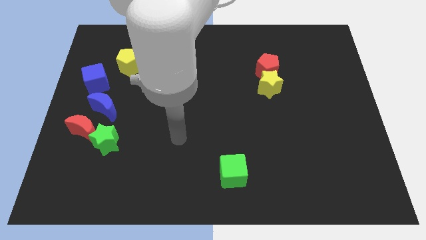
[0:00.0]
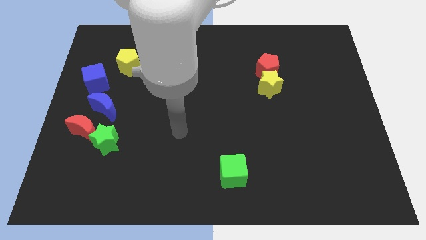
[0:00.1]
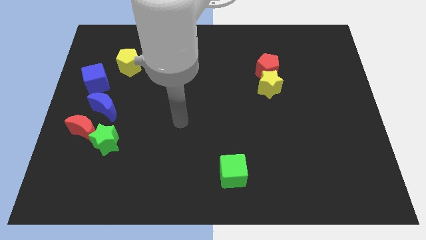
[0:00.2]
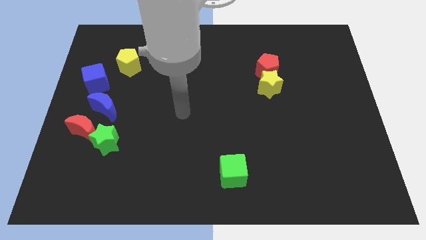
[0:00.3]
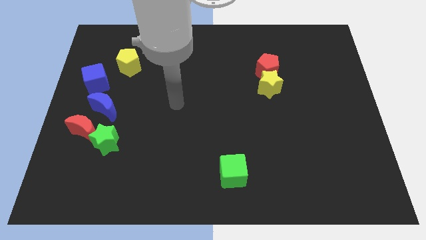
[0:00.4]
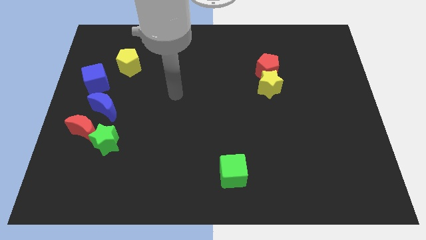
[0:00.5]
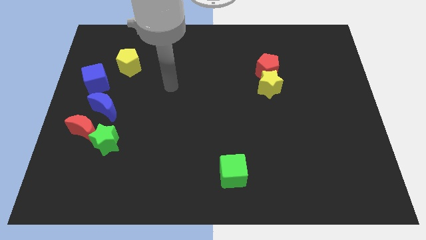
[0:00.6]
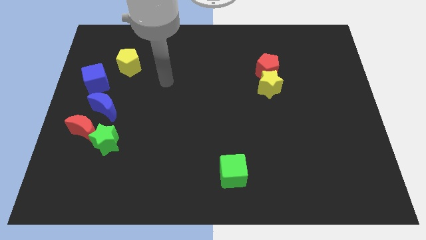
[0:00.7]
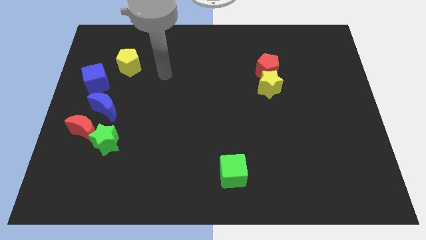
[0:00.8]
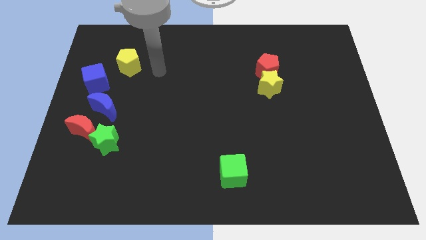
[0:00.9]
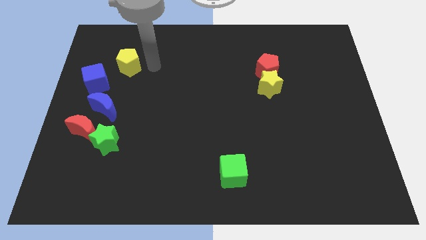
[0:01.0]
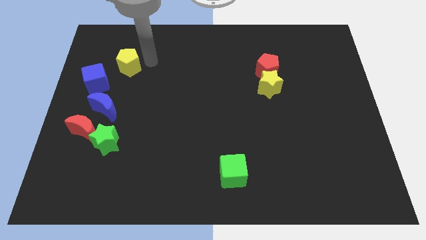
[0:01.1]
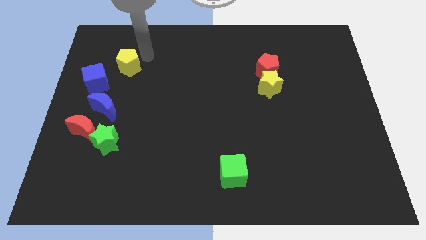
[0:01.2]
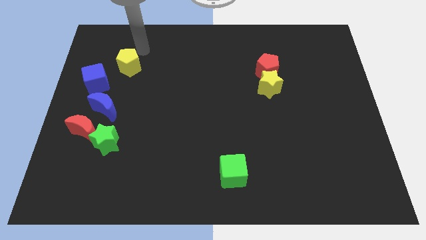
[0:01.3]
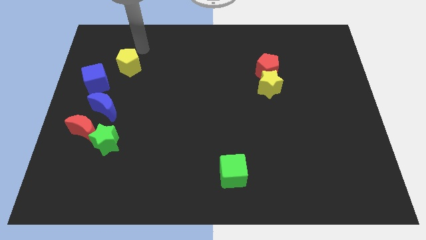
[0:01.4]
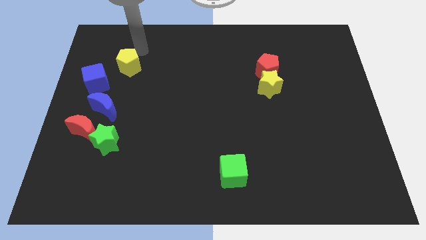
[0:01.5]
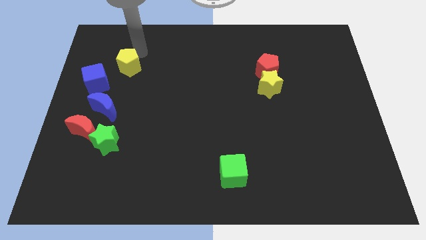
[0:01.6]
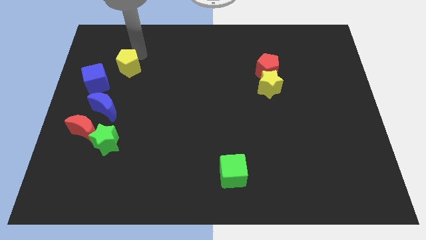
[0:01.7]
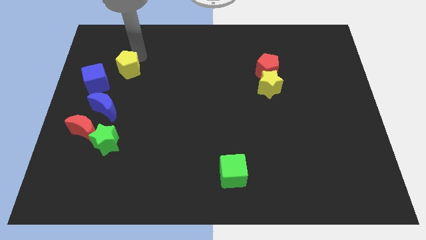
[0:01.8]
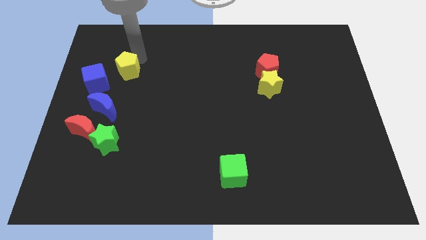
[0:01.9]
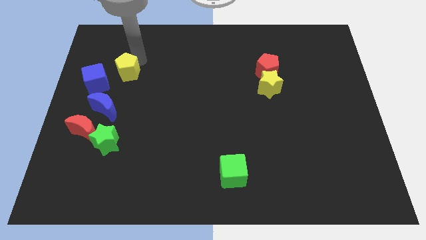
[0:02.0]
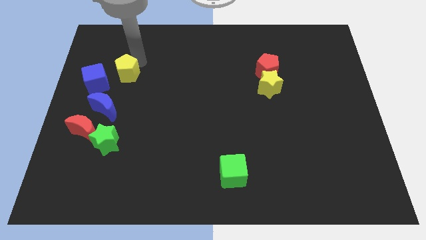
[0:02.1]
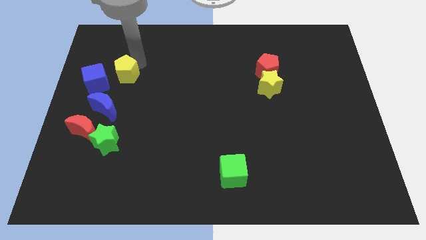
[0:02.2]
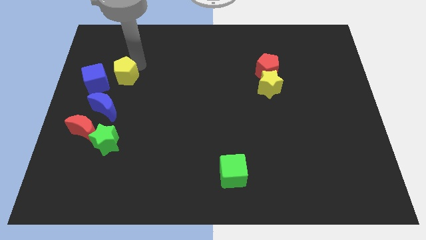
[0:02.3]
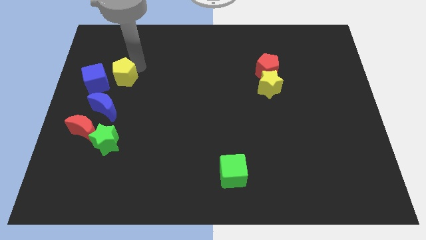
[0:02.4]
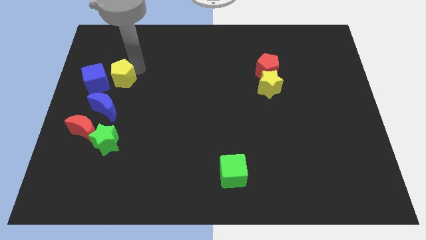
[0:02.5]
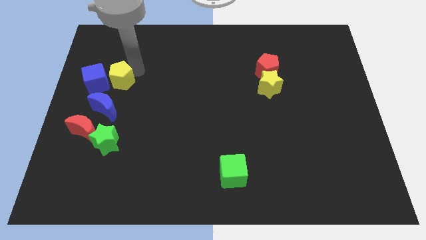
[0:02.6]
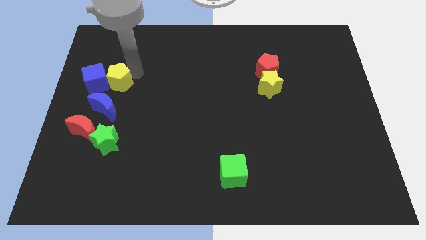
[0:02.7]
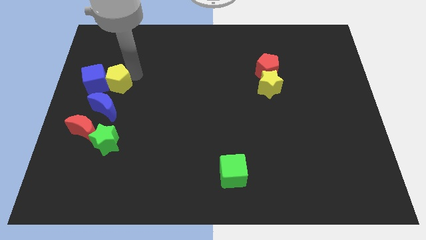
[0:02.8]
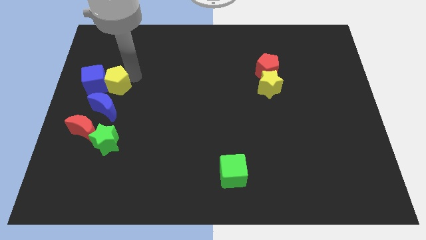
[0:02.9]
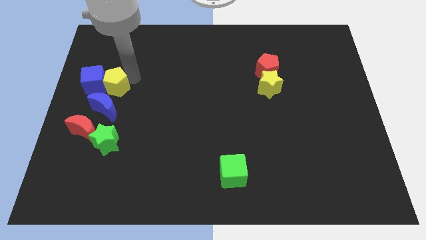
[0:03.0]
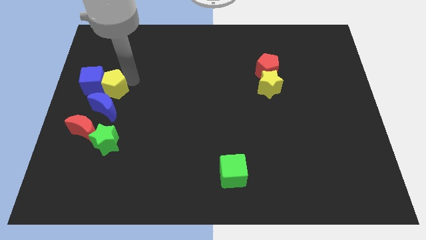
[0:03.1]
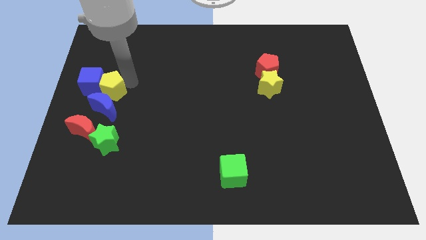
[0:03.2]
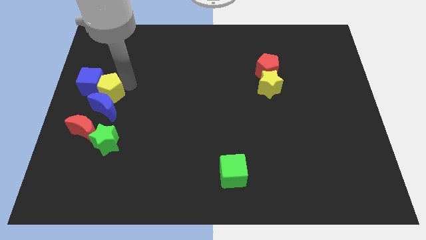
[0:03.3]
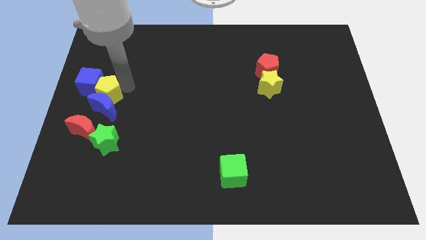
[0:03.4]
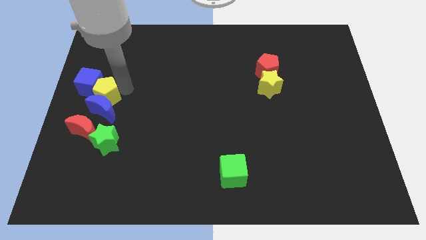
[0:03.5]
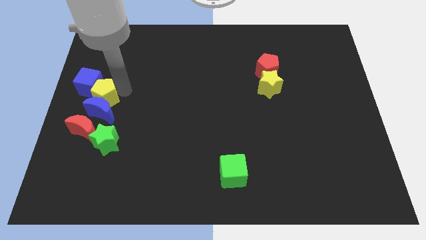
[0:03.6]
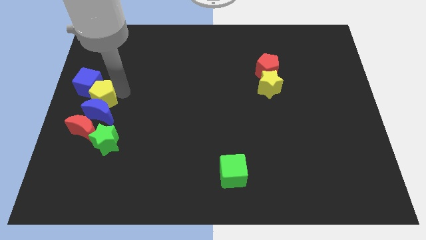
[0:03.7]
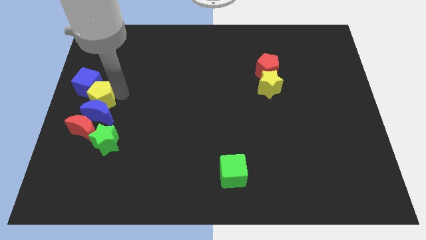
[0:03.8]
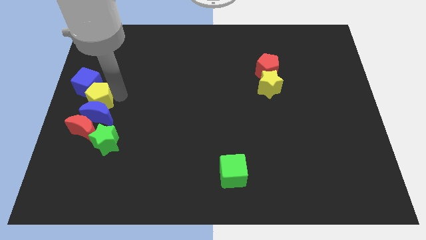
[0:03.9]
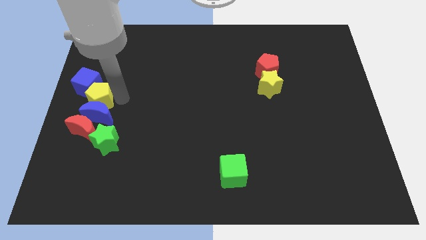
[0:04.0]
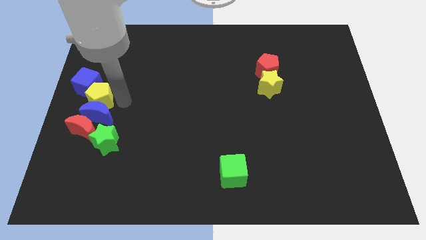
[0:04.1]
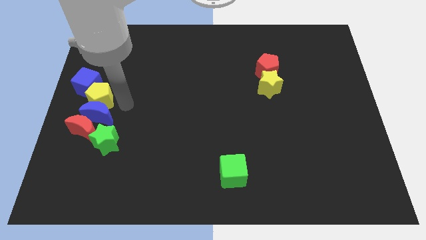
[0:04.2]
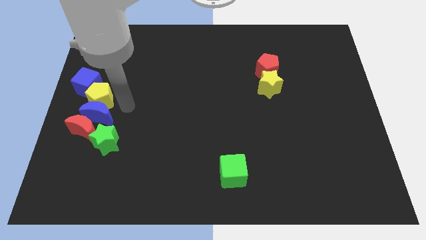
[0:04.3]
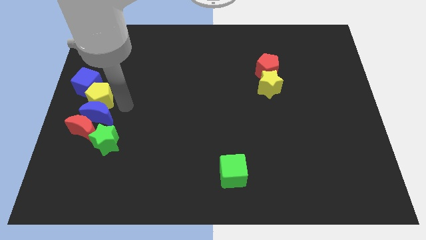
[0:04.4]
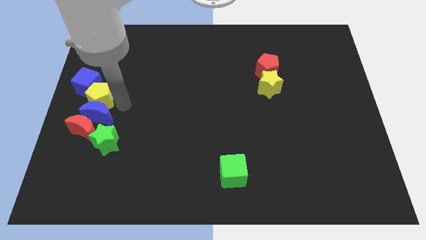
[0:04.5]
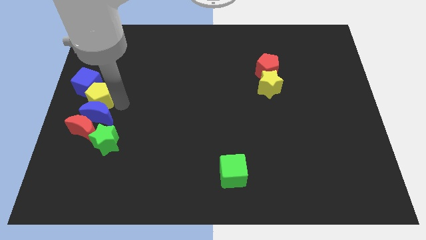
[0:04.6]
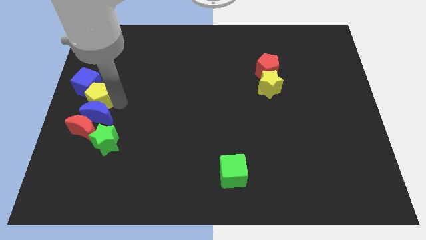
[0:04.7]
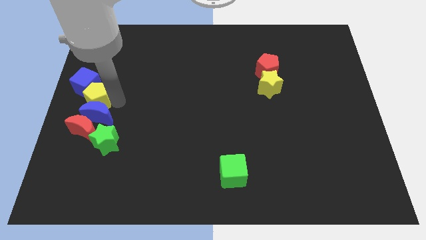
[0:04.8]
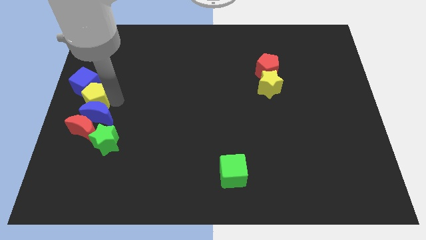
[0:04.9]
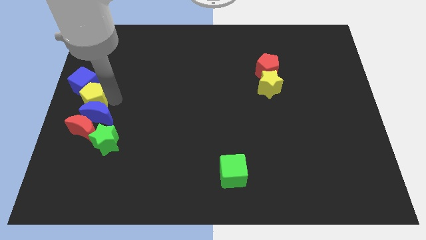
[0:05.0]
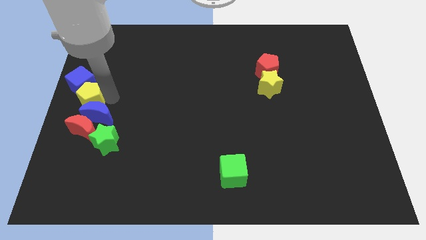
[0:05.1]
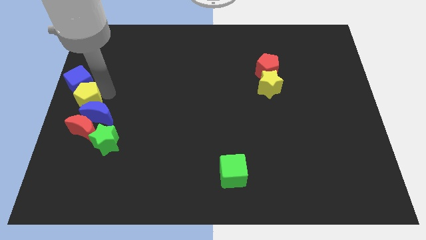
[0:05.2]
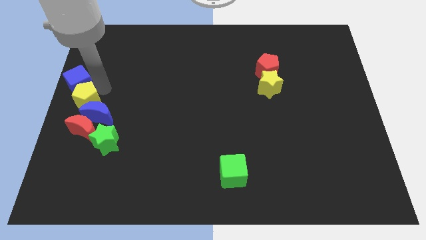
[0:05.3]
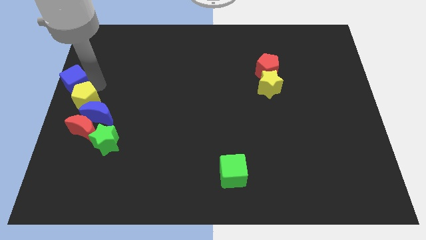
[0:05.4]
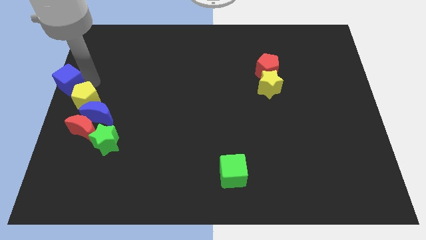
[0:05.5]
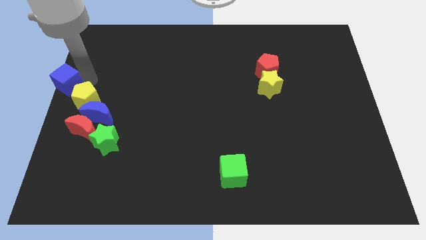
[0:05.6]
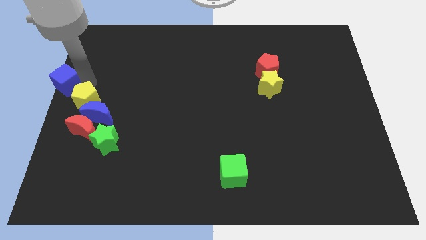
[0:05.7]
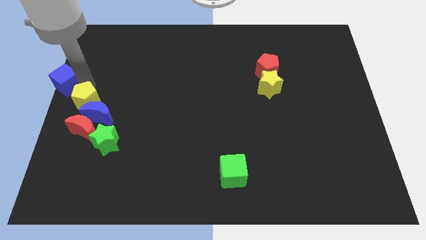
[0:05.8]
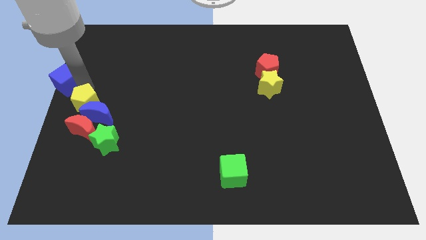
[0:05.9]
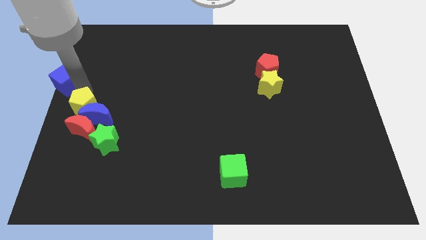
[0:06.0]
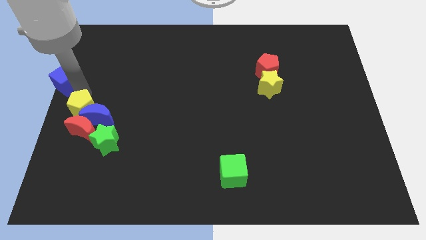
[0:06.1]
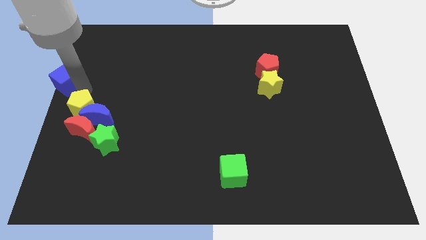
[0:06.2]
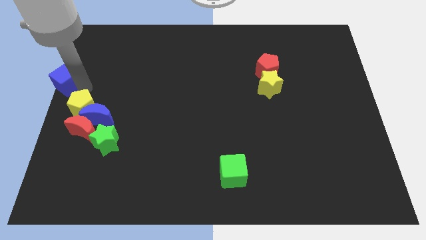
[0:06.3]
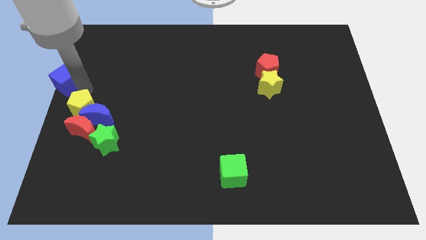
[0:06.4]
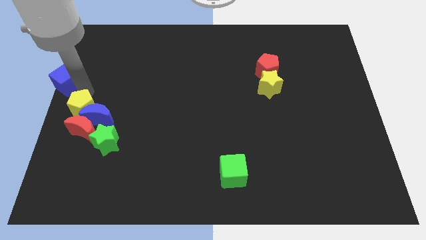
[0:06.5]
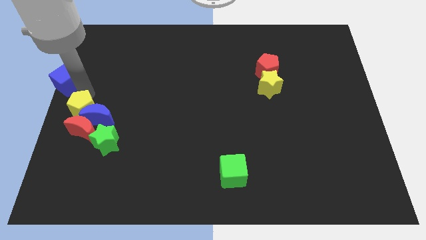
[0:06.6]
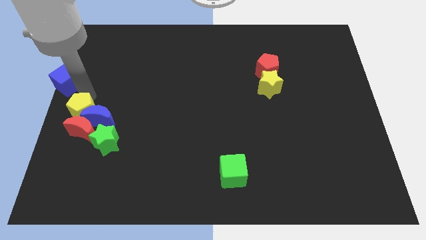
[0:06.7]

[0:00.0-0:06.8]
push the yellow pentagon next to the red moon

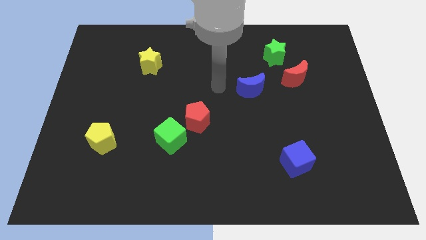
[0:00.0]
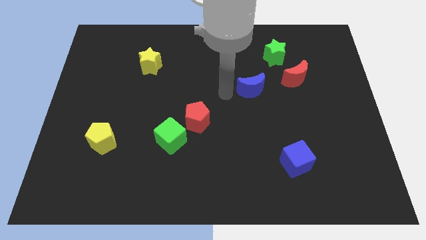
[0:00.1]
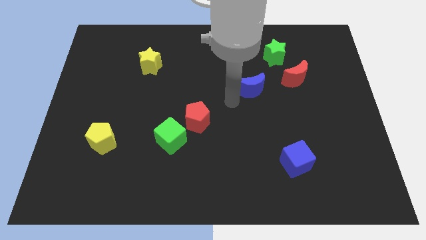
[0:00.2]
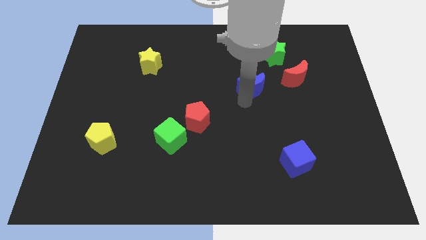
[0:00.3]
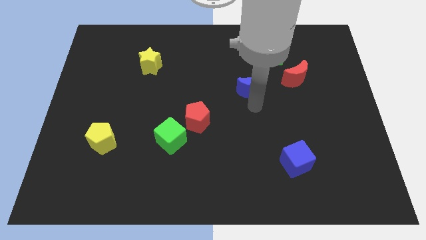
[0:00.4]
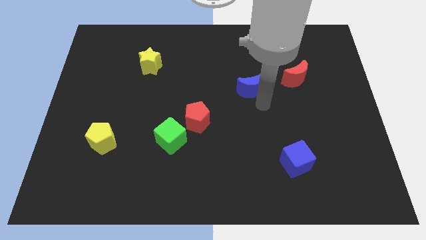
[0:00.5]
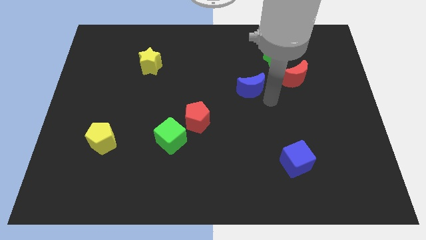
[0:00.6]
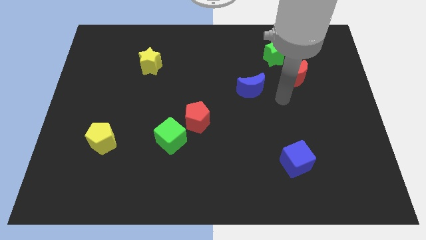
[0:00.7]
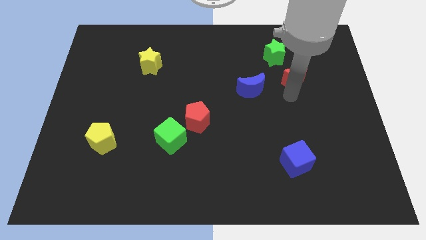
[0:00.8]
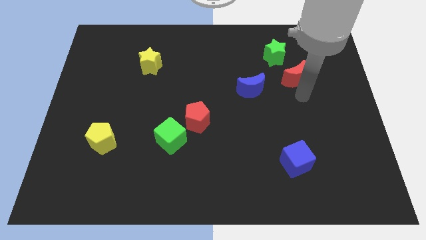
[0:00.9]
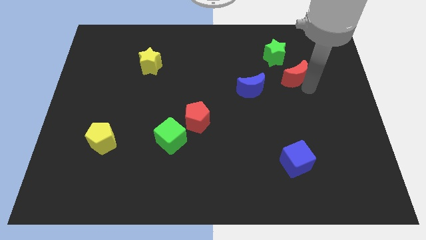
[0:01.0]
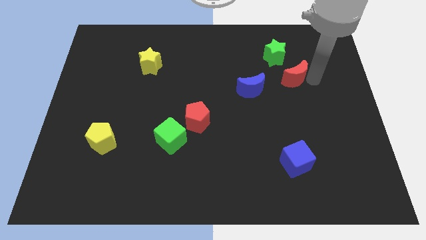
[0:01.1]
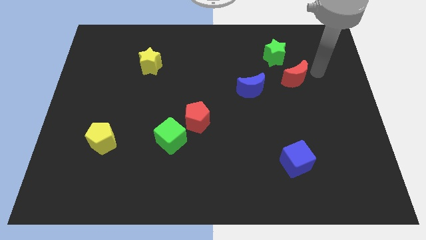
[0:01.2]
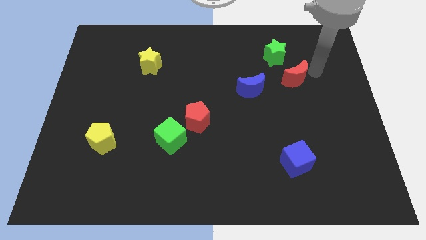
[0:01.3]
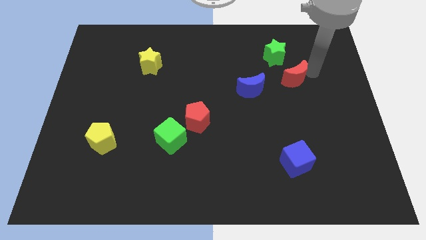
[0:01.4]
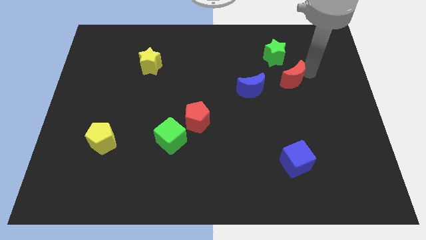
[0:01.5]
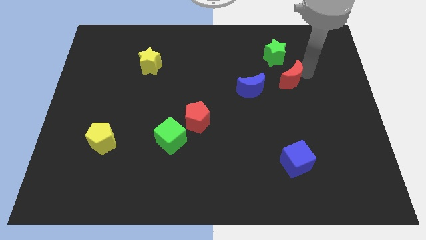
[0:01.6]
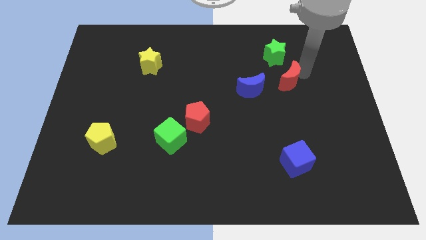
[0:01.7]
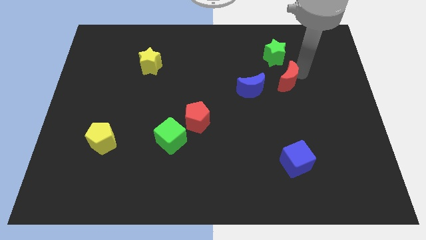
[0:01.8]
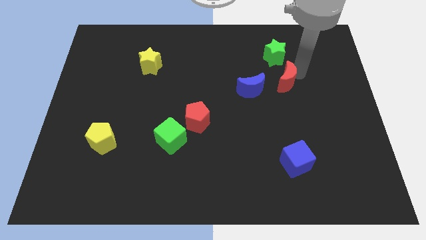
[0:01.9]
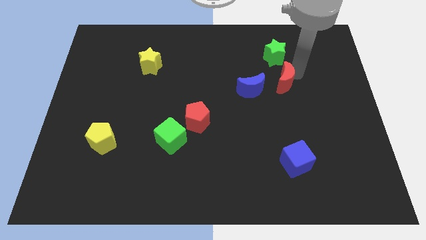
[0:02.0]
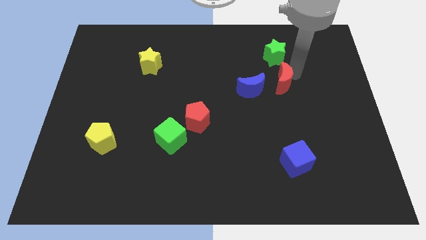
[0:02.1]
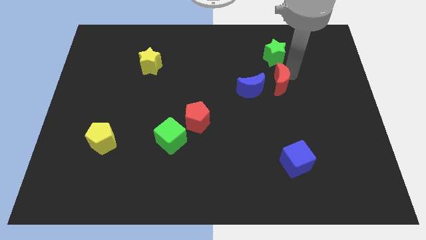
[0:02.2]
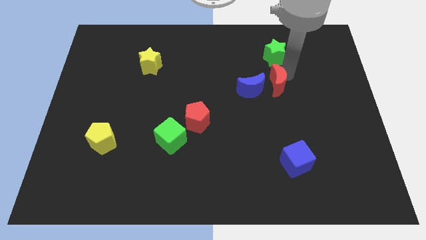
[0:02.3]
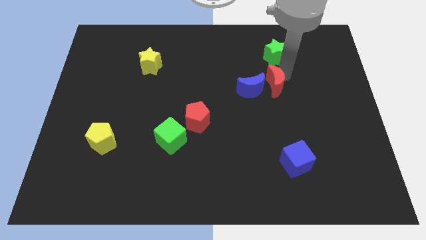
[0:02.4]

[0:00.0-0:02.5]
put the red moon close to the blue moon
